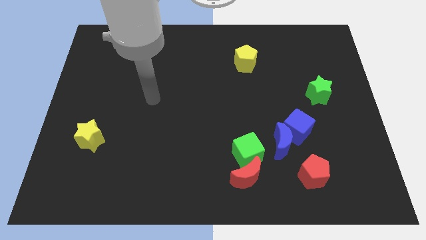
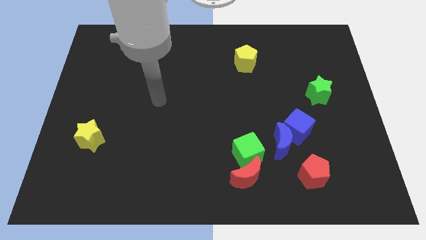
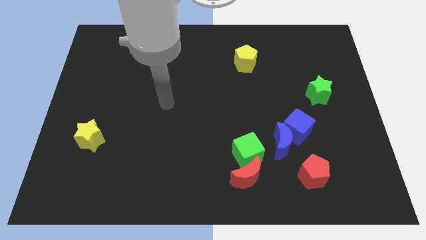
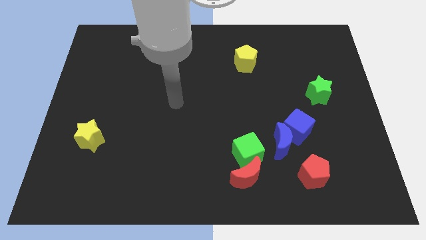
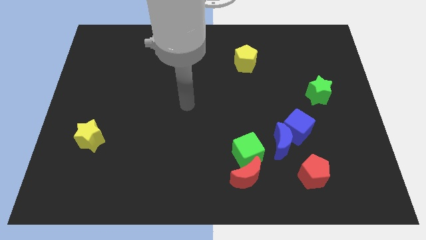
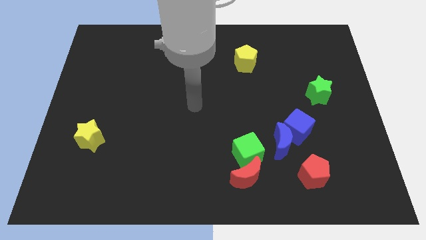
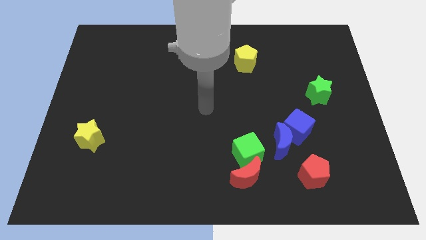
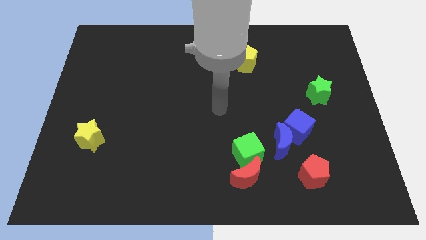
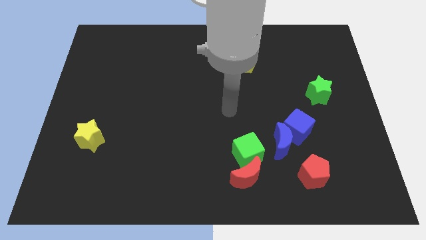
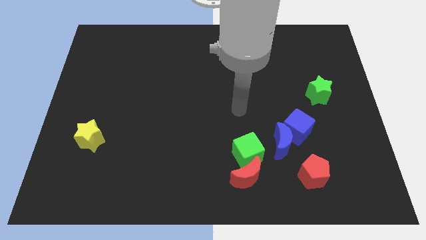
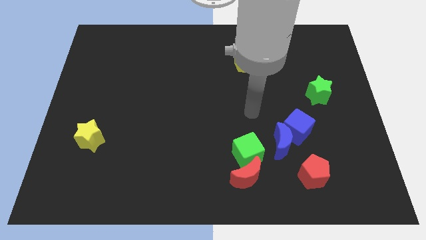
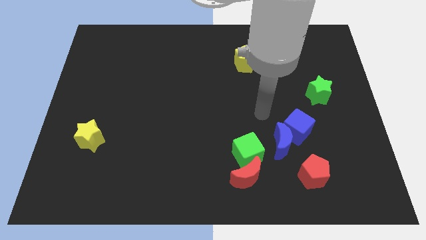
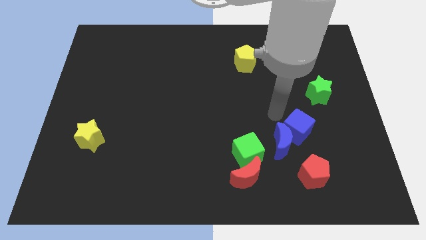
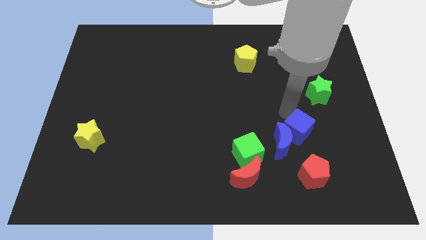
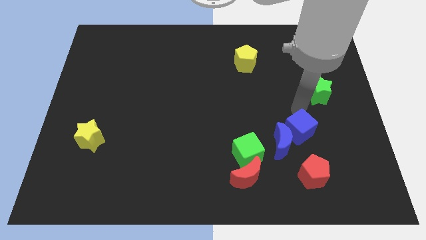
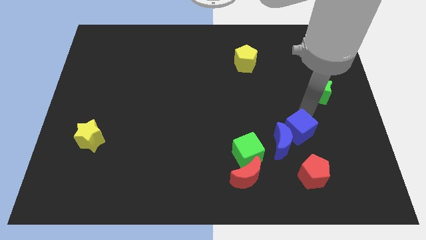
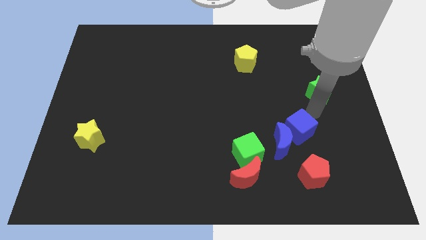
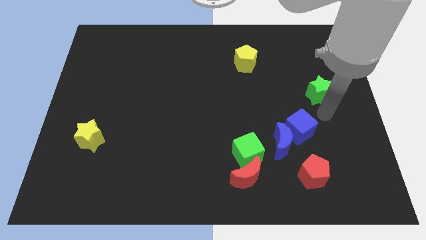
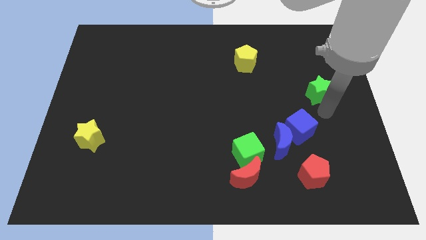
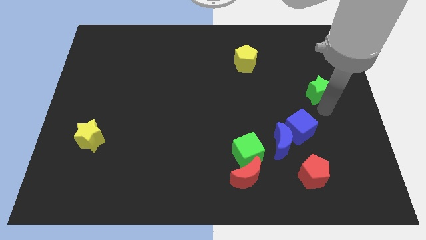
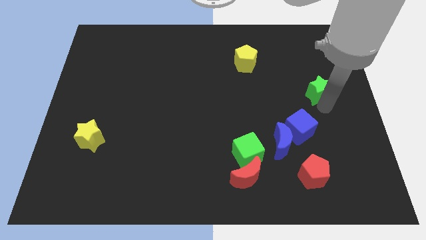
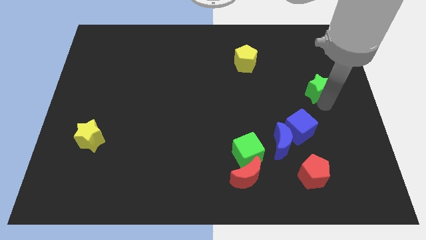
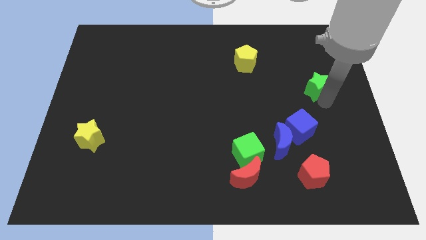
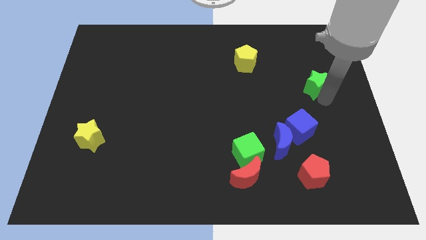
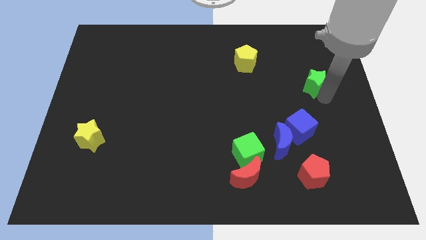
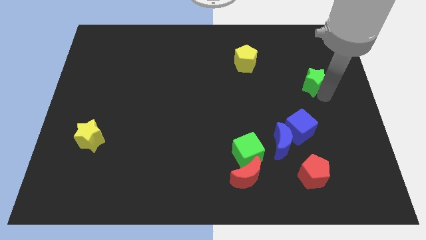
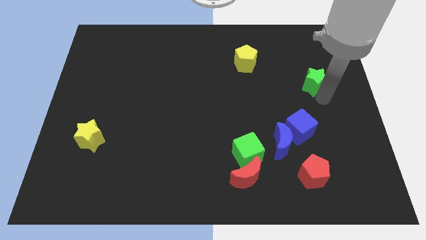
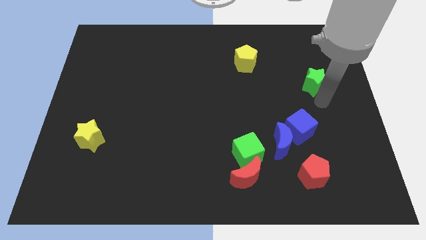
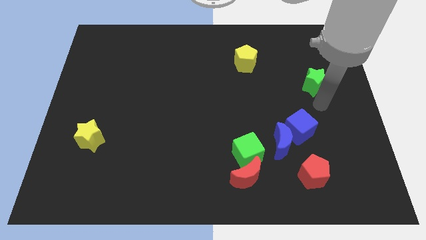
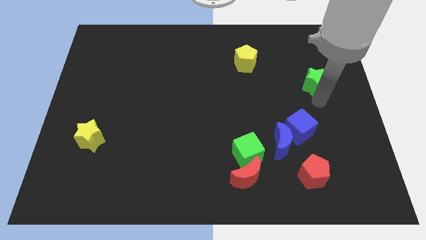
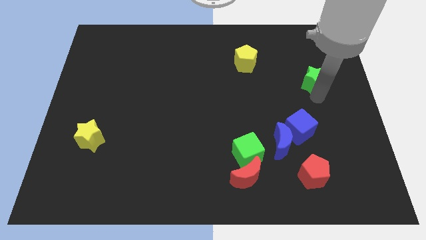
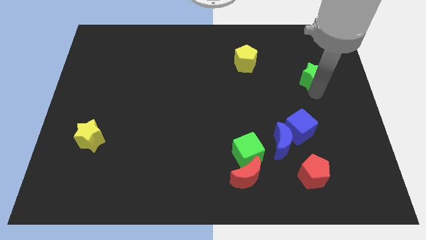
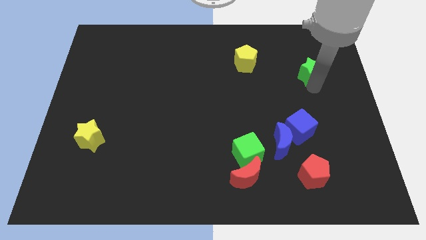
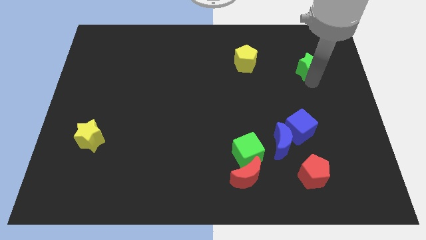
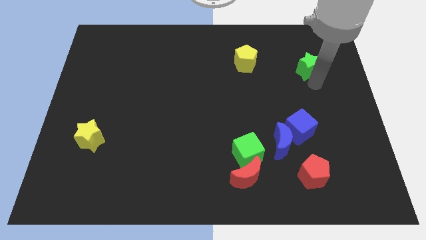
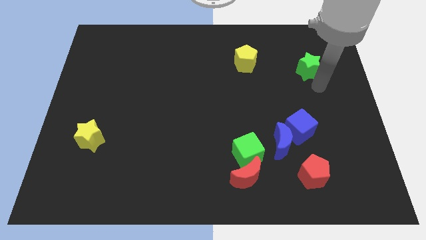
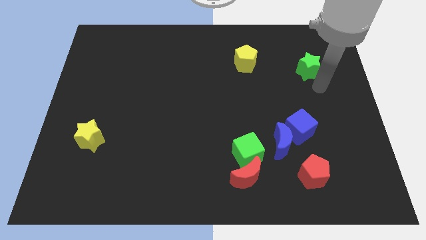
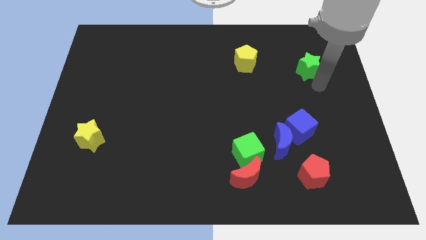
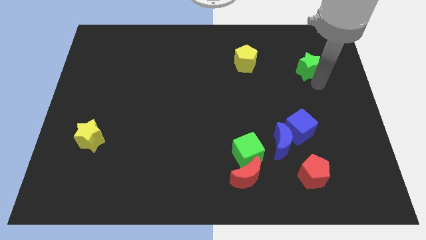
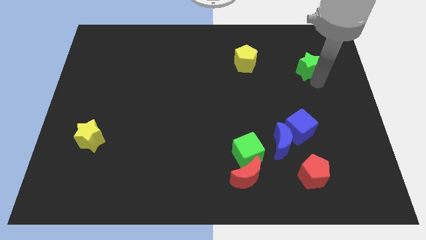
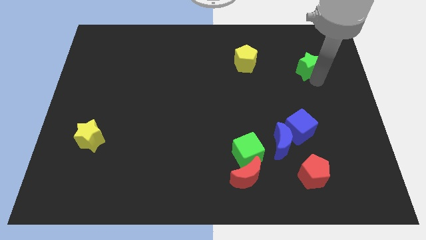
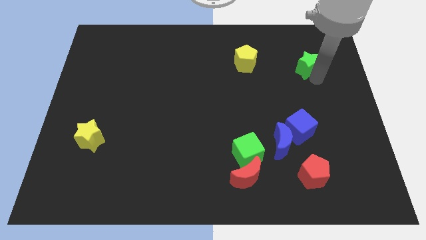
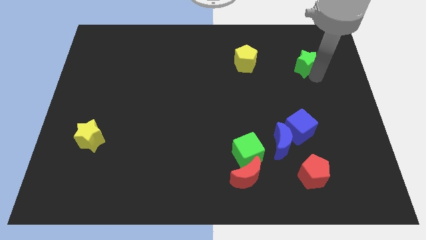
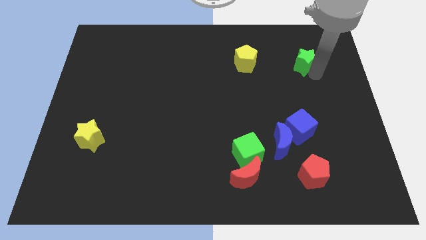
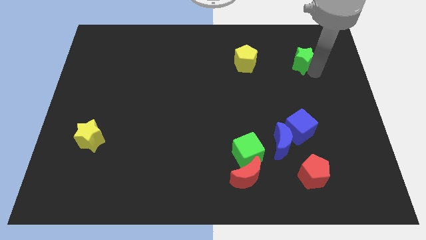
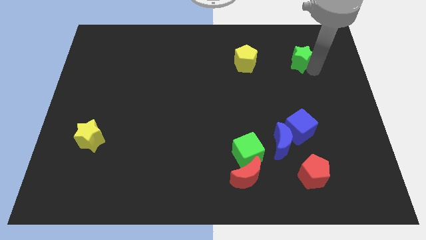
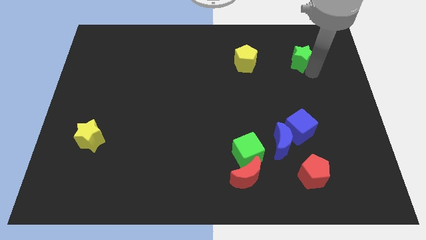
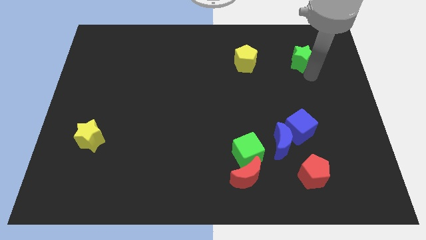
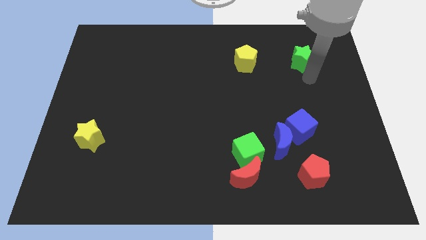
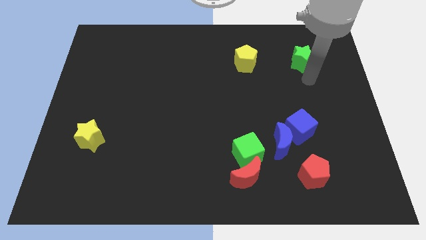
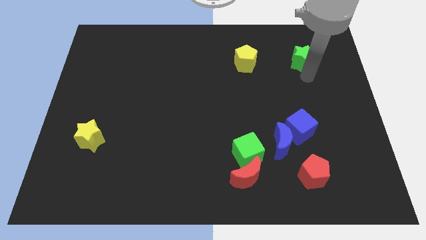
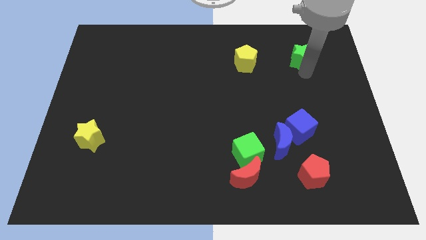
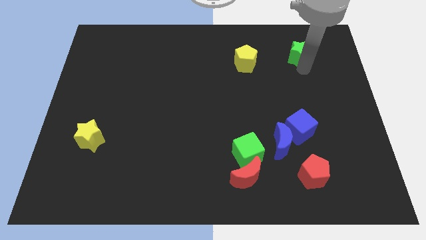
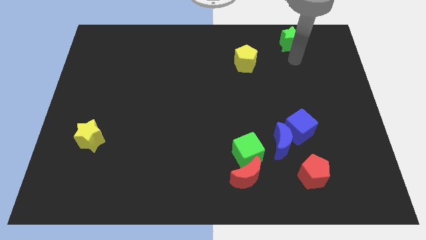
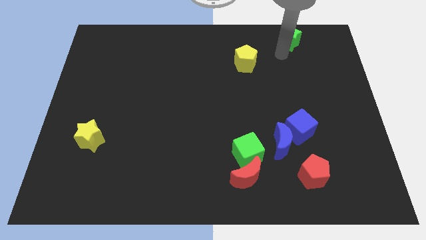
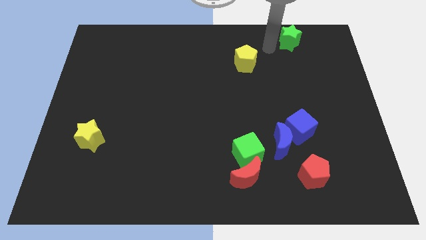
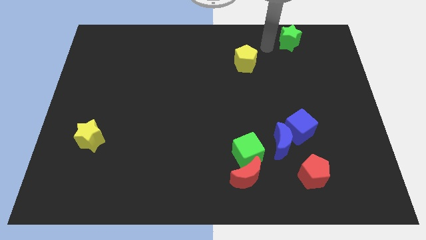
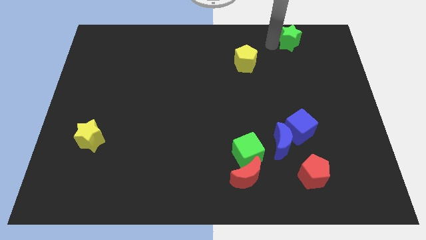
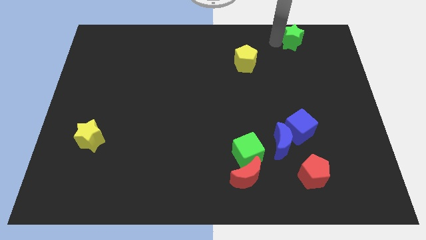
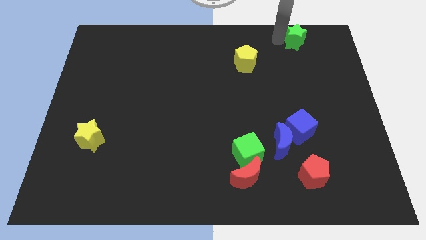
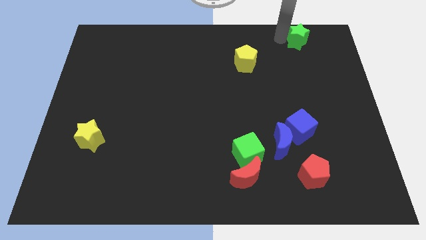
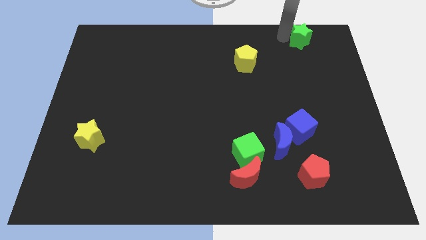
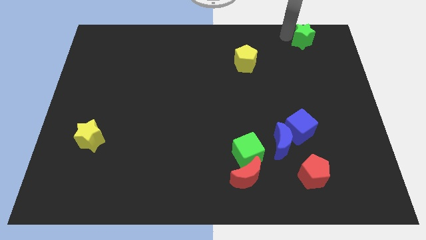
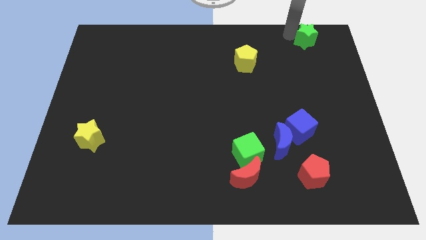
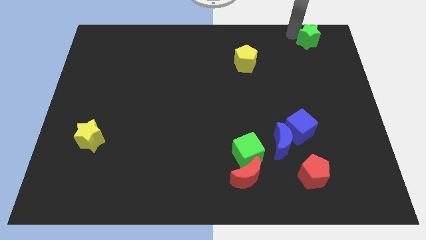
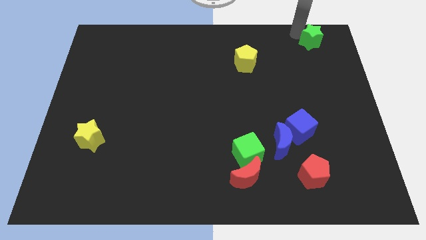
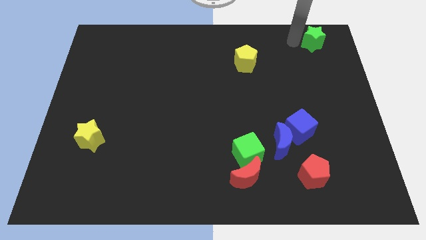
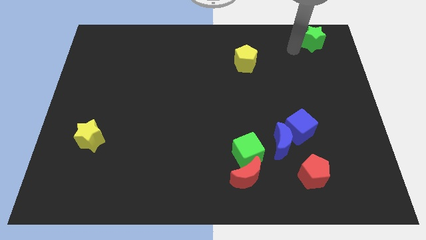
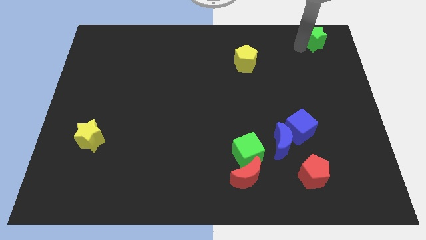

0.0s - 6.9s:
put the green star to the top right of the board
